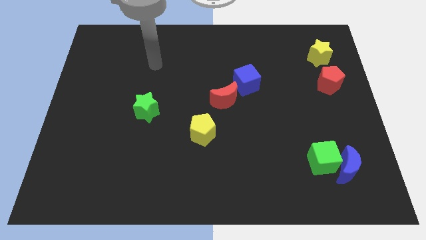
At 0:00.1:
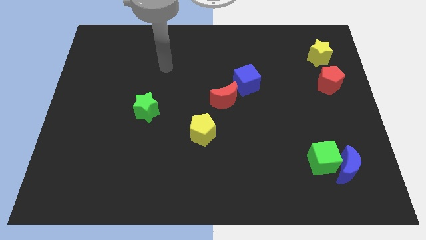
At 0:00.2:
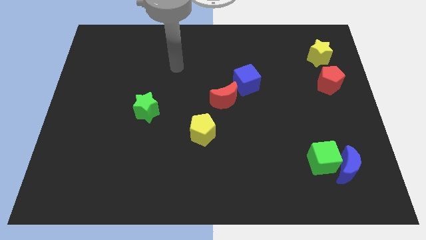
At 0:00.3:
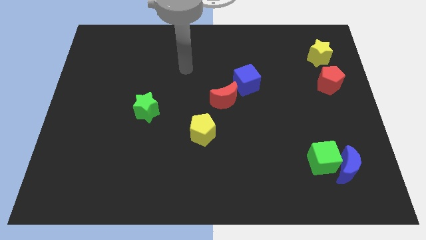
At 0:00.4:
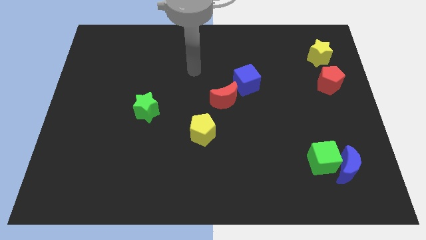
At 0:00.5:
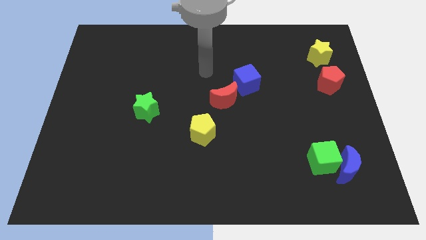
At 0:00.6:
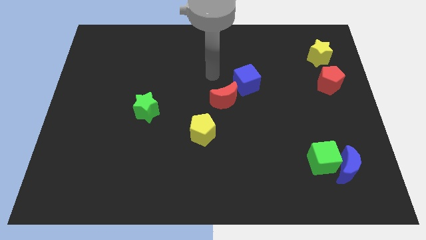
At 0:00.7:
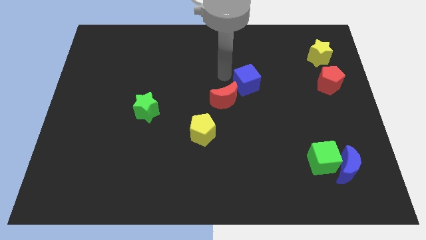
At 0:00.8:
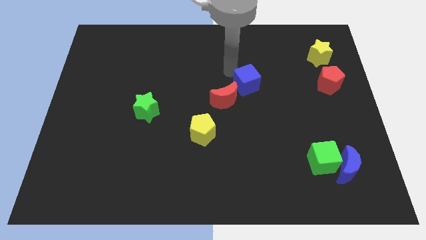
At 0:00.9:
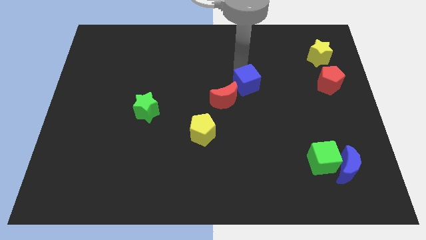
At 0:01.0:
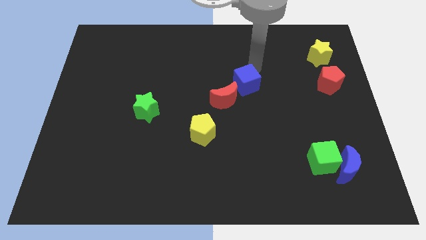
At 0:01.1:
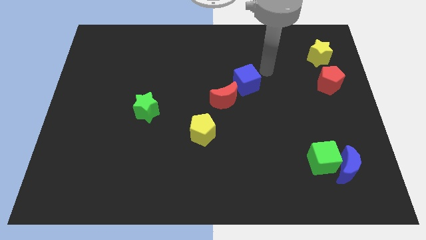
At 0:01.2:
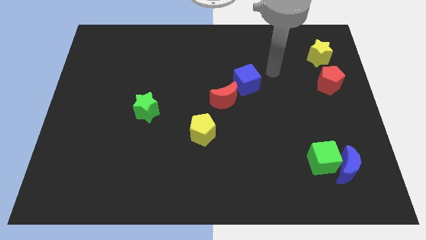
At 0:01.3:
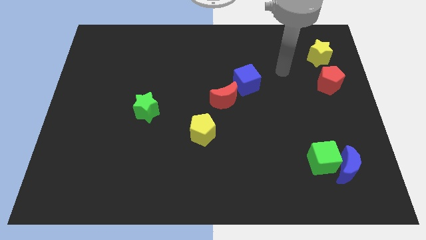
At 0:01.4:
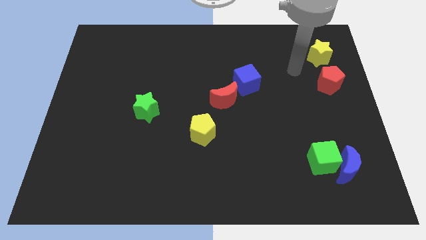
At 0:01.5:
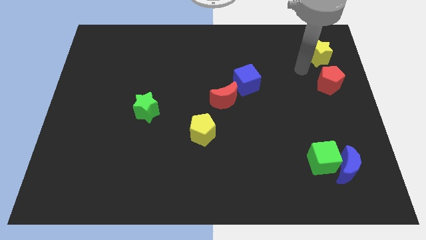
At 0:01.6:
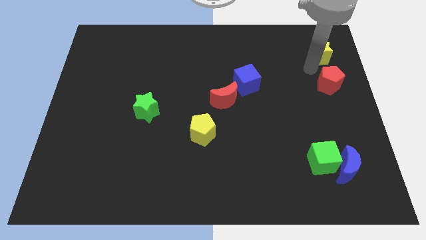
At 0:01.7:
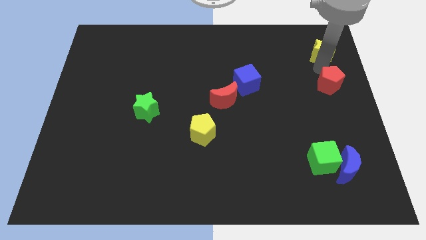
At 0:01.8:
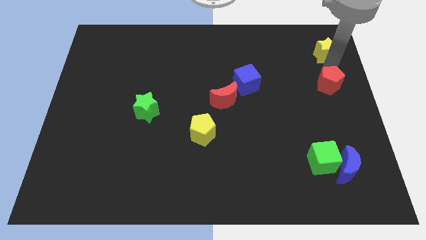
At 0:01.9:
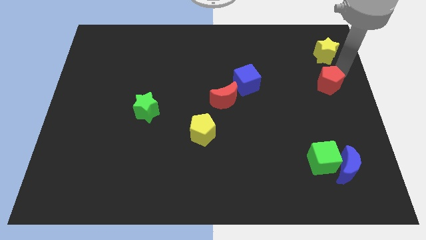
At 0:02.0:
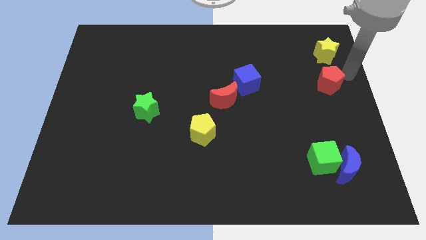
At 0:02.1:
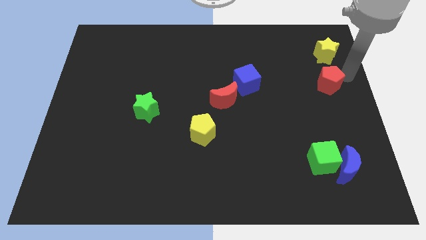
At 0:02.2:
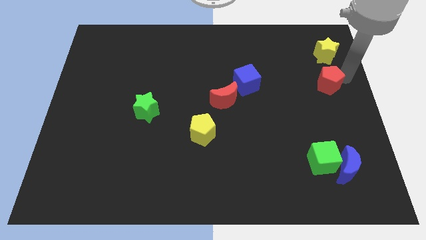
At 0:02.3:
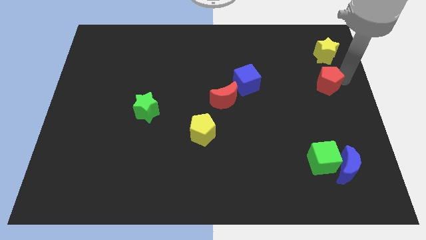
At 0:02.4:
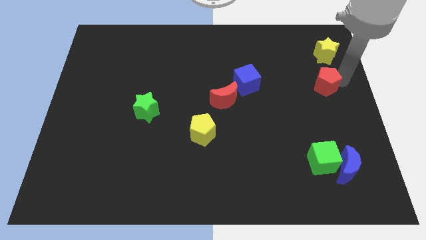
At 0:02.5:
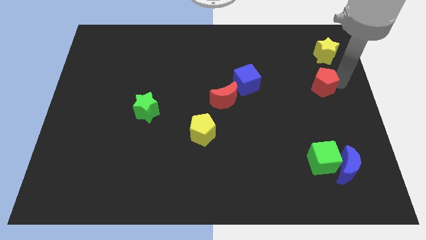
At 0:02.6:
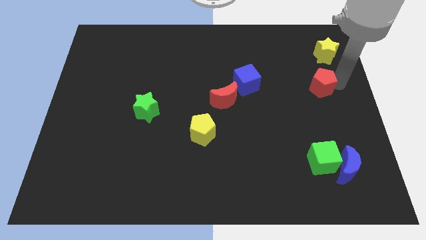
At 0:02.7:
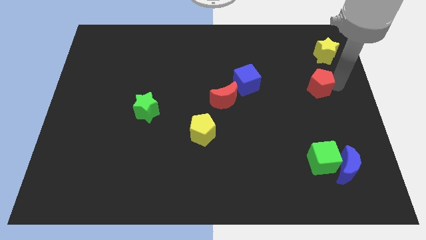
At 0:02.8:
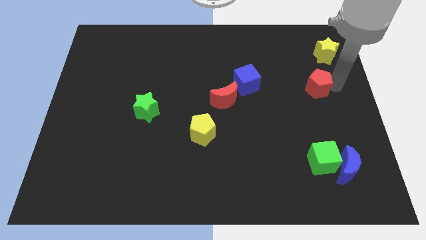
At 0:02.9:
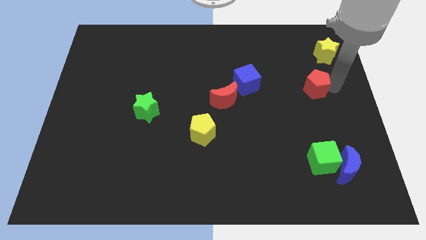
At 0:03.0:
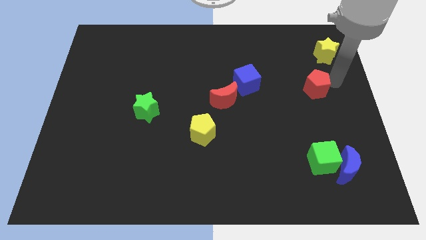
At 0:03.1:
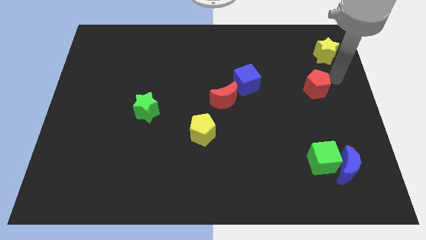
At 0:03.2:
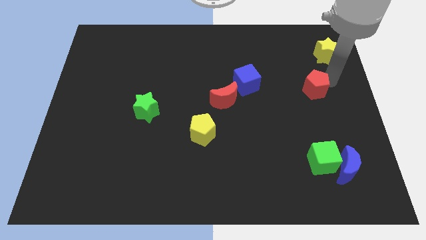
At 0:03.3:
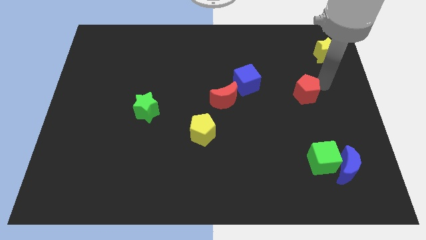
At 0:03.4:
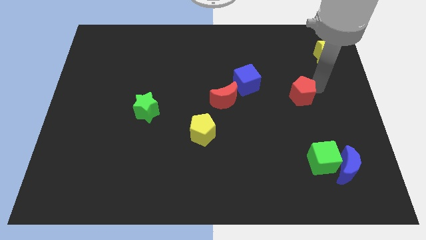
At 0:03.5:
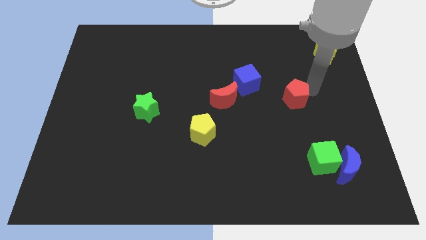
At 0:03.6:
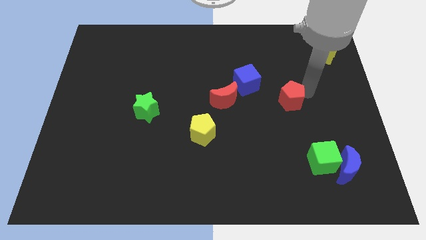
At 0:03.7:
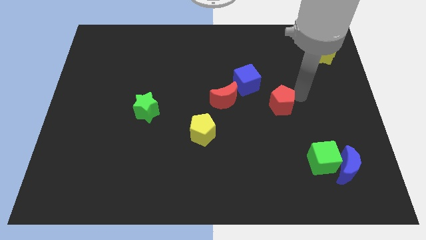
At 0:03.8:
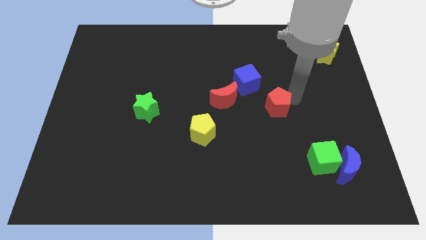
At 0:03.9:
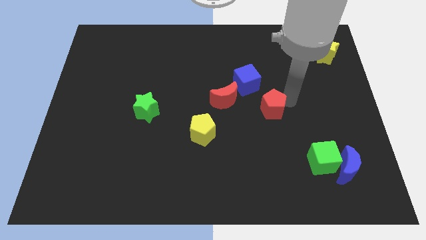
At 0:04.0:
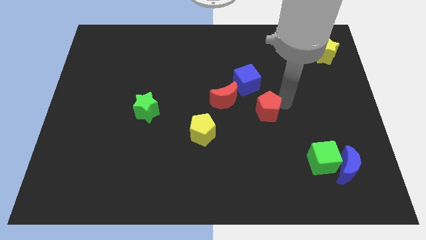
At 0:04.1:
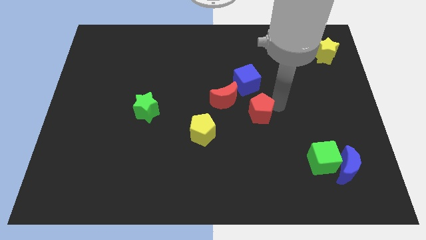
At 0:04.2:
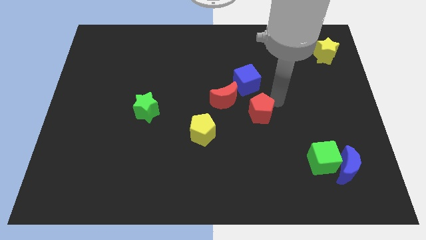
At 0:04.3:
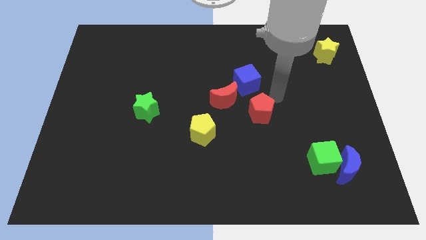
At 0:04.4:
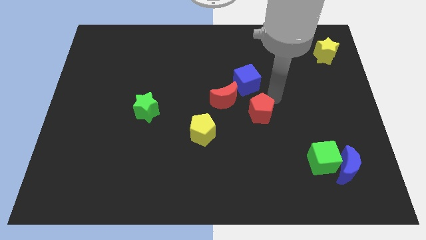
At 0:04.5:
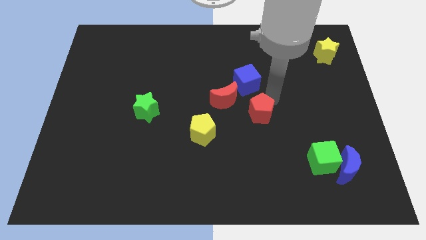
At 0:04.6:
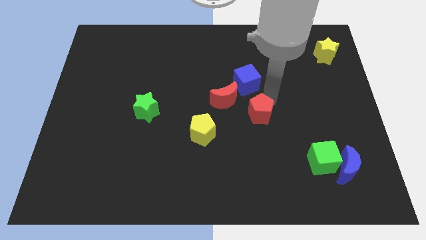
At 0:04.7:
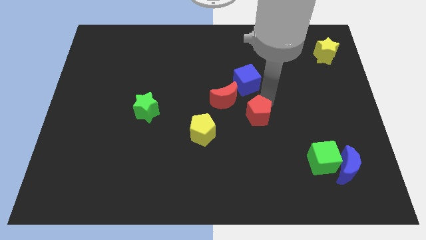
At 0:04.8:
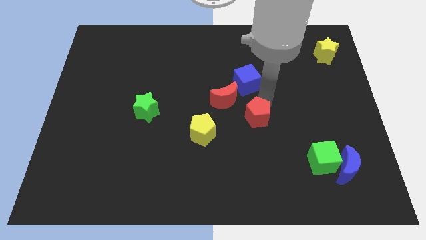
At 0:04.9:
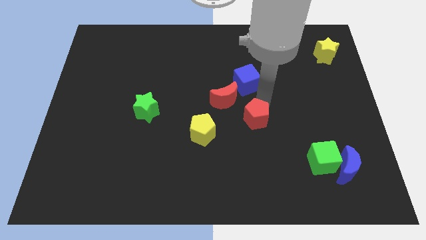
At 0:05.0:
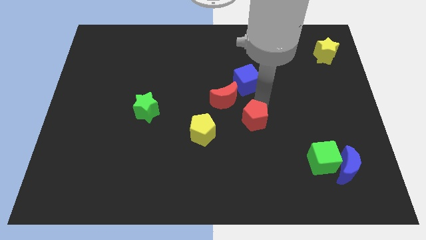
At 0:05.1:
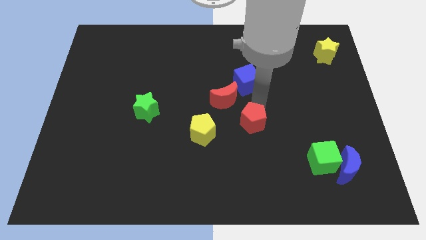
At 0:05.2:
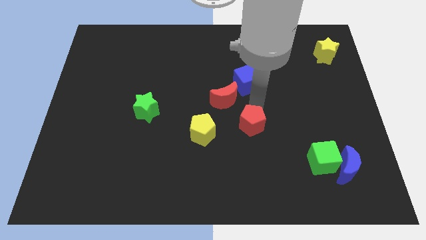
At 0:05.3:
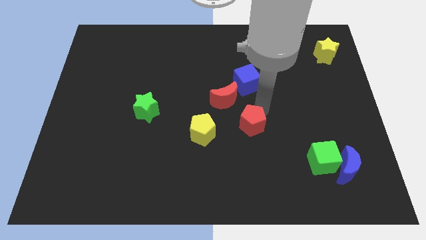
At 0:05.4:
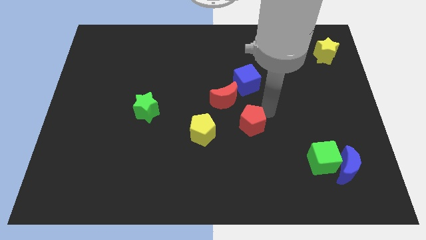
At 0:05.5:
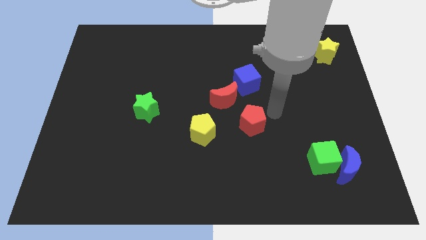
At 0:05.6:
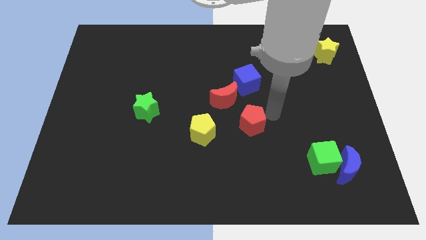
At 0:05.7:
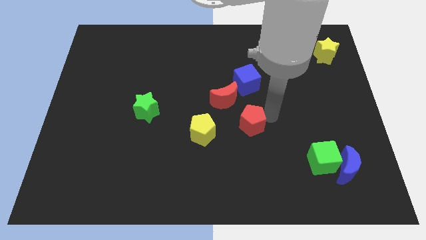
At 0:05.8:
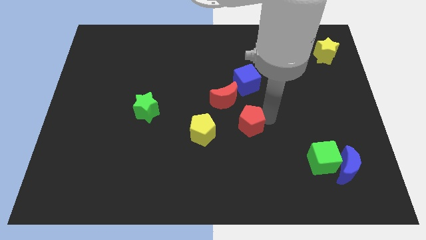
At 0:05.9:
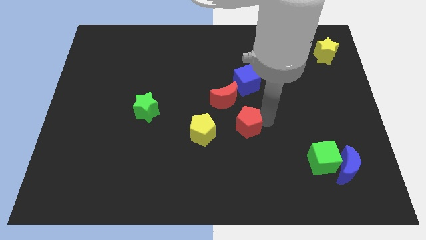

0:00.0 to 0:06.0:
move the red pentagon to the bottom of the red moon
